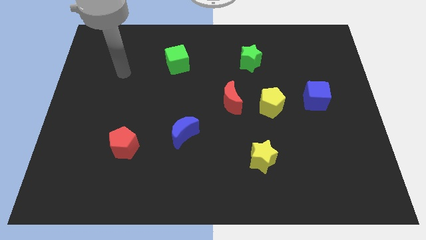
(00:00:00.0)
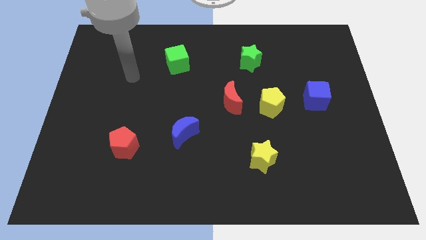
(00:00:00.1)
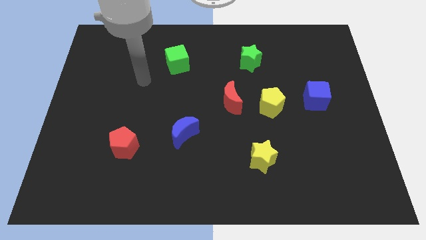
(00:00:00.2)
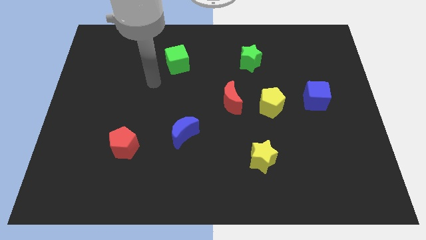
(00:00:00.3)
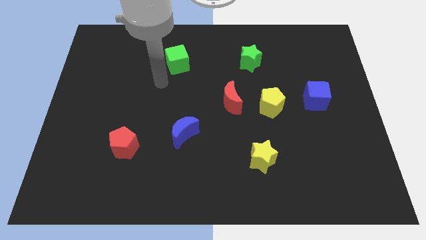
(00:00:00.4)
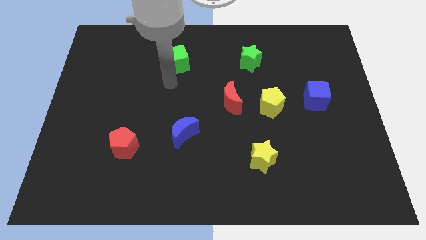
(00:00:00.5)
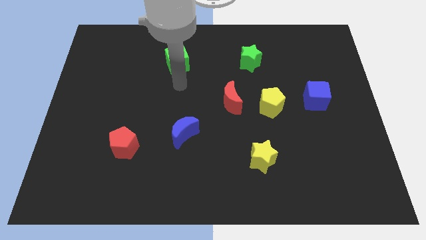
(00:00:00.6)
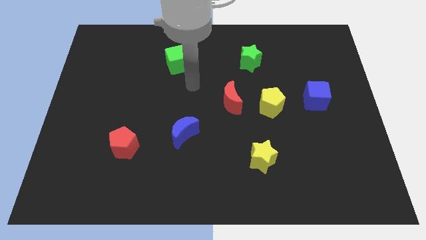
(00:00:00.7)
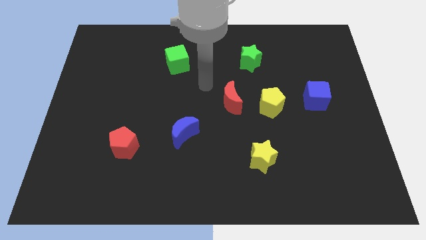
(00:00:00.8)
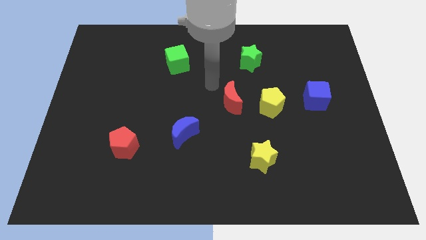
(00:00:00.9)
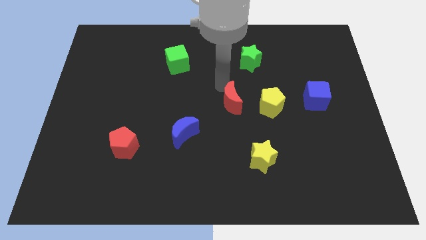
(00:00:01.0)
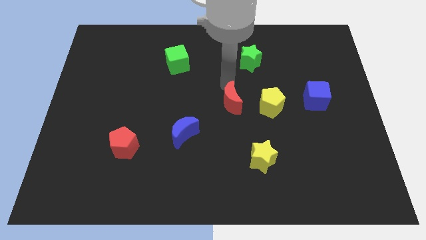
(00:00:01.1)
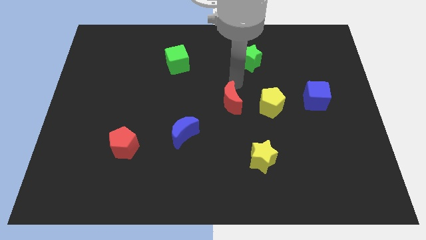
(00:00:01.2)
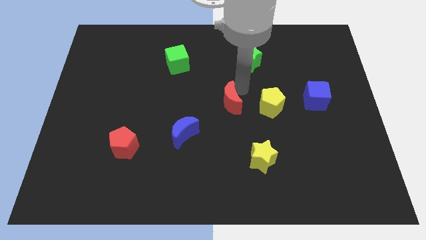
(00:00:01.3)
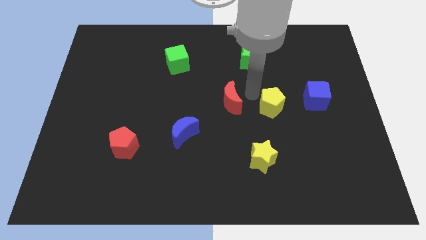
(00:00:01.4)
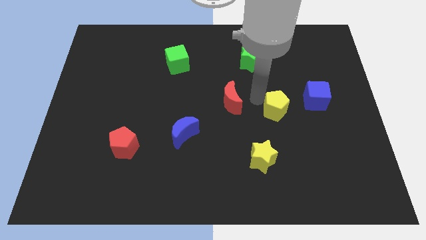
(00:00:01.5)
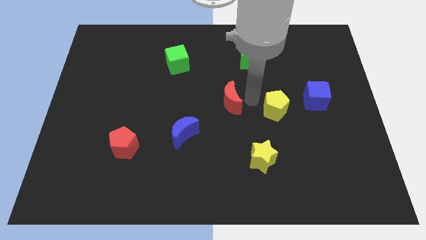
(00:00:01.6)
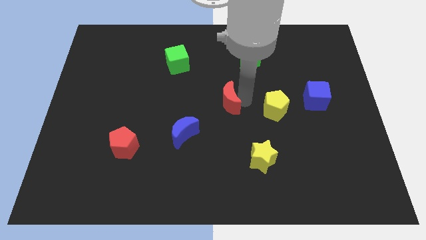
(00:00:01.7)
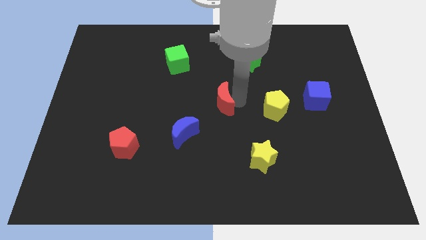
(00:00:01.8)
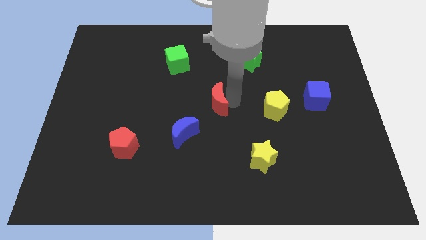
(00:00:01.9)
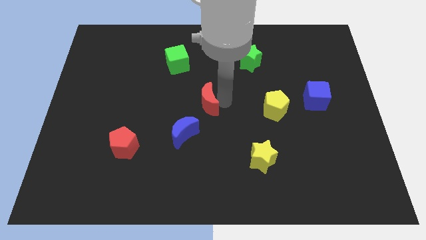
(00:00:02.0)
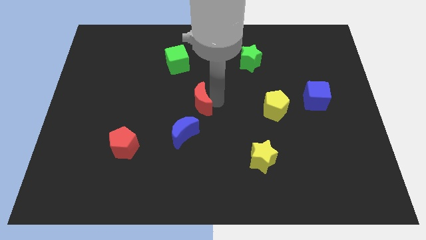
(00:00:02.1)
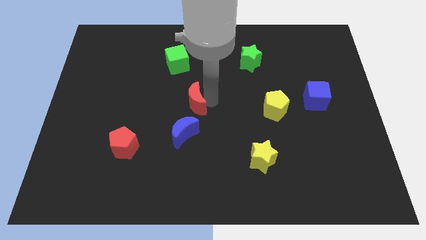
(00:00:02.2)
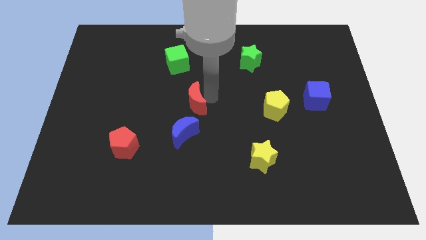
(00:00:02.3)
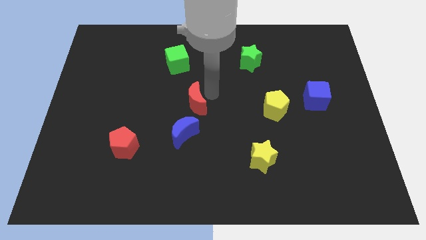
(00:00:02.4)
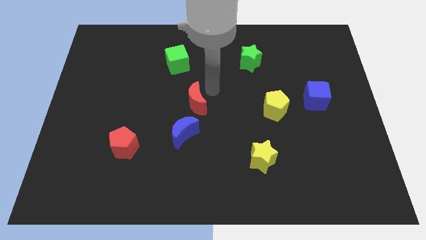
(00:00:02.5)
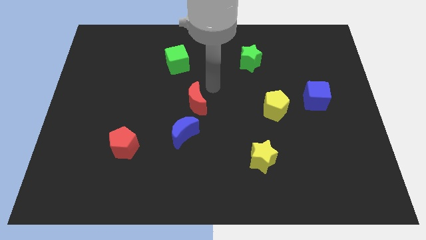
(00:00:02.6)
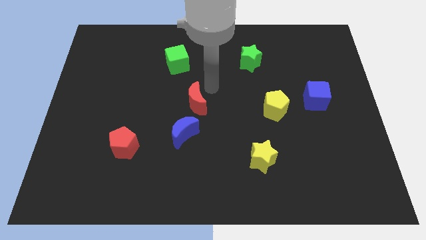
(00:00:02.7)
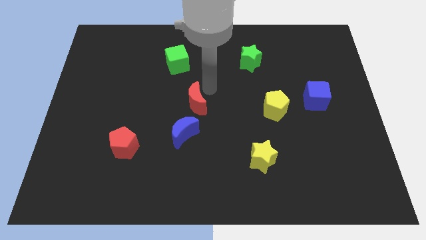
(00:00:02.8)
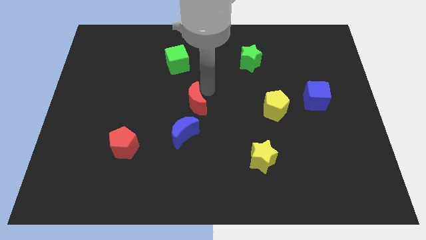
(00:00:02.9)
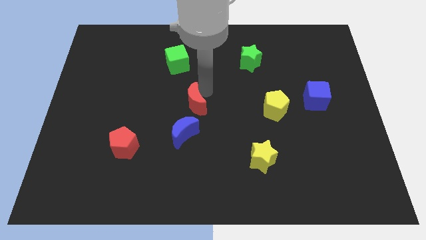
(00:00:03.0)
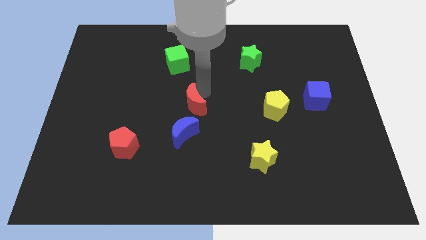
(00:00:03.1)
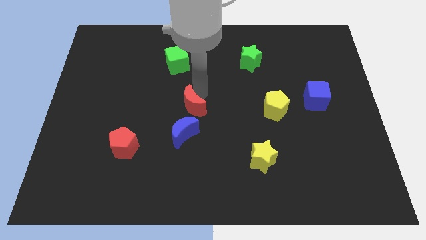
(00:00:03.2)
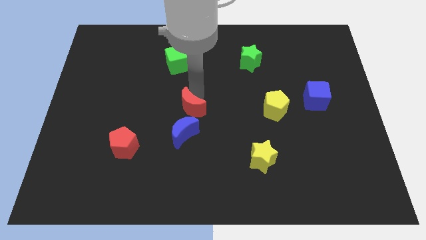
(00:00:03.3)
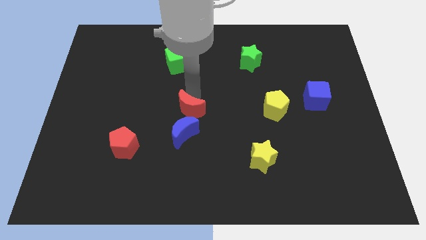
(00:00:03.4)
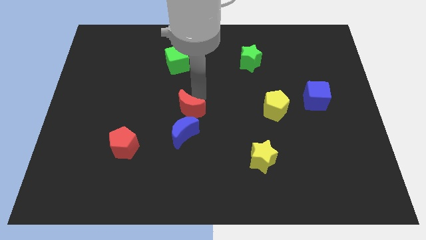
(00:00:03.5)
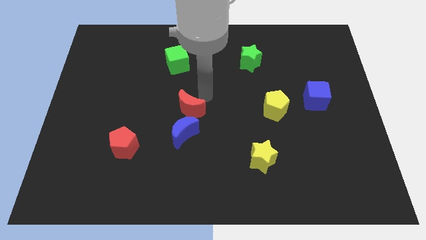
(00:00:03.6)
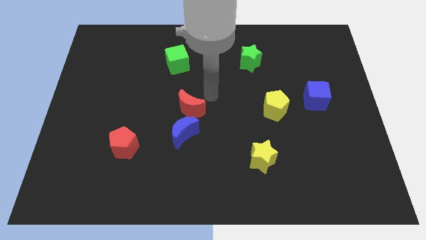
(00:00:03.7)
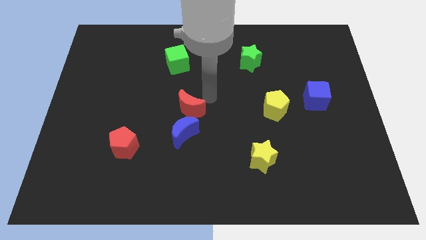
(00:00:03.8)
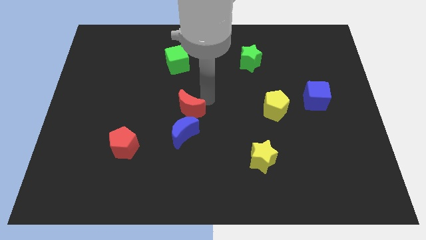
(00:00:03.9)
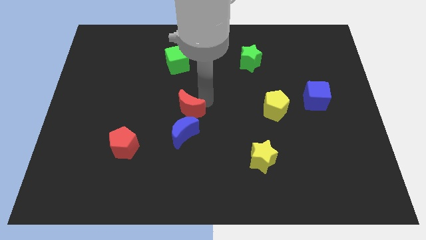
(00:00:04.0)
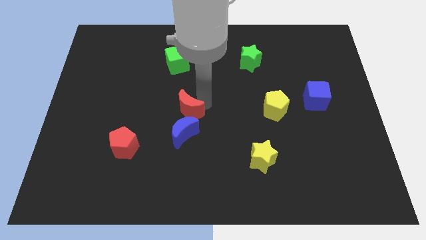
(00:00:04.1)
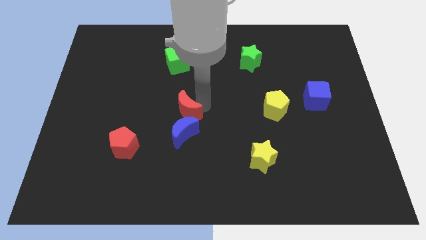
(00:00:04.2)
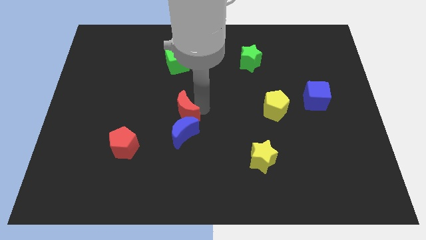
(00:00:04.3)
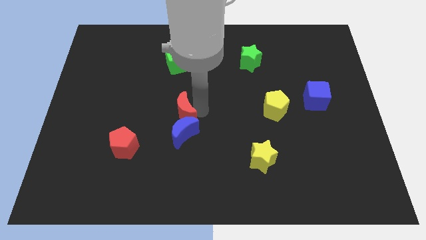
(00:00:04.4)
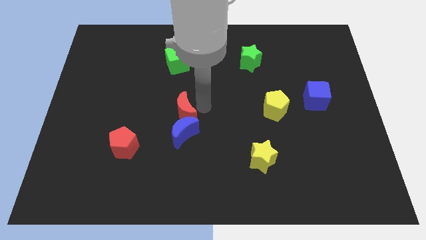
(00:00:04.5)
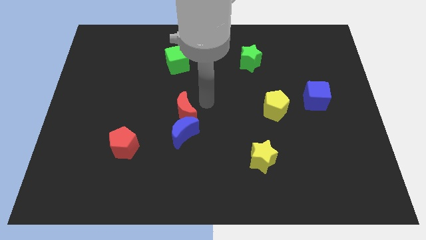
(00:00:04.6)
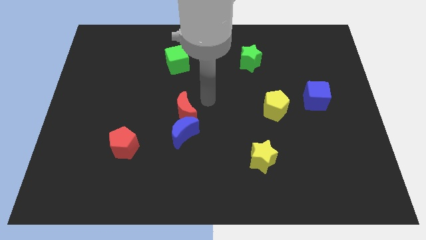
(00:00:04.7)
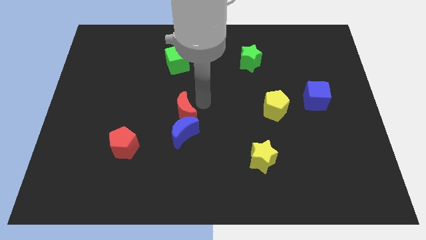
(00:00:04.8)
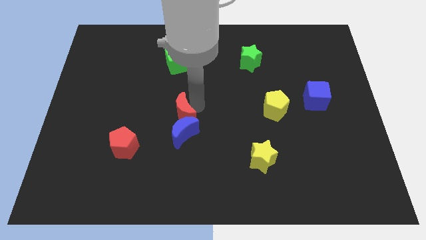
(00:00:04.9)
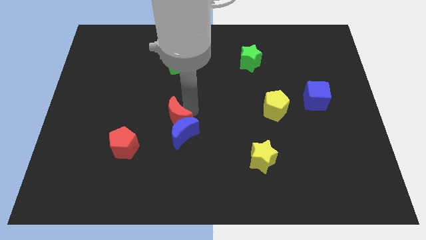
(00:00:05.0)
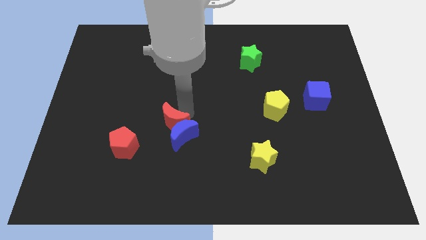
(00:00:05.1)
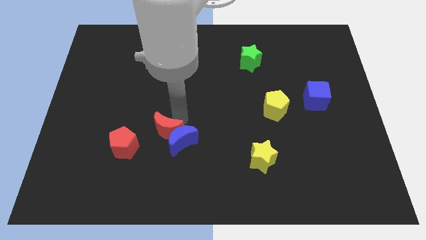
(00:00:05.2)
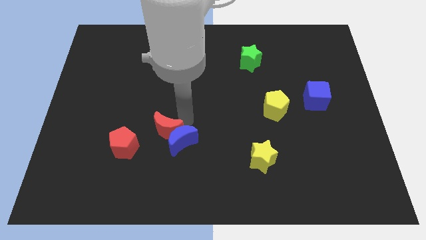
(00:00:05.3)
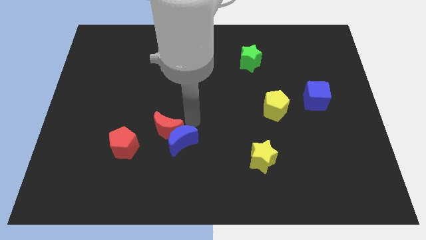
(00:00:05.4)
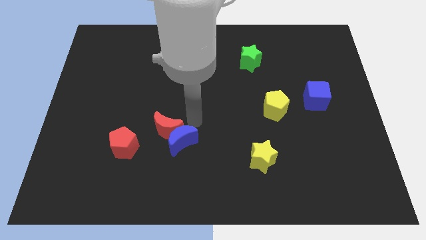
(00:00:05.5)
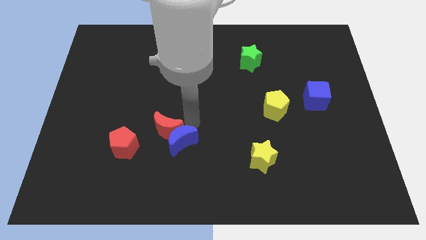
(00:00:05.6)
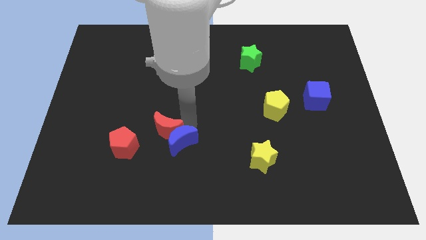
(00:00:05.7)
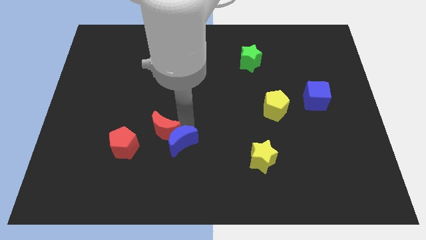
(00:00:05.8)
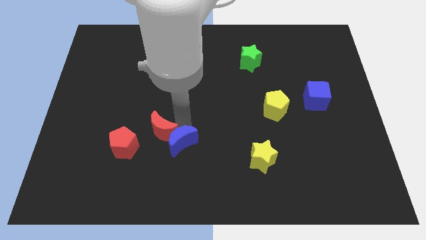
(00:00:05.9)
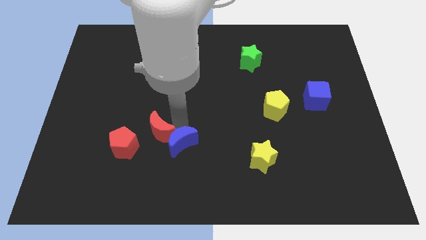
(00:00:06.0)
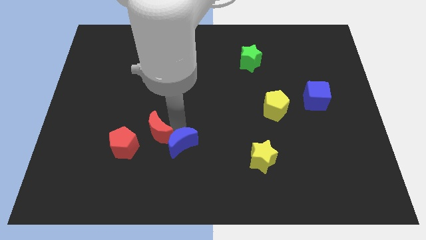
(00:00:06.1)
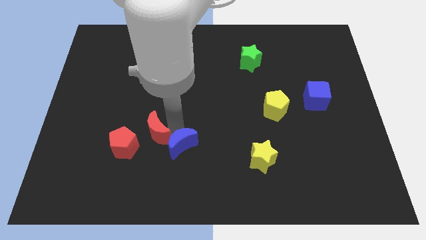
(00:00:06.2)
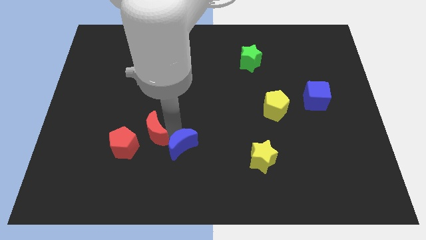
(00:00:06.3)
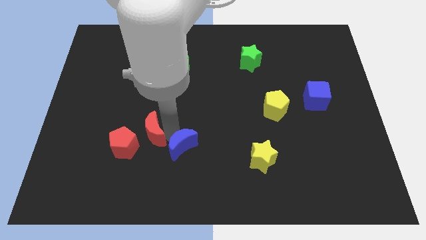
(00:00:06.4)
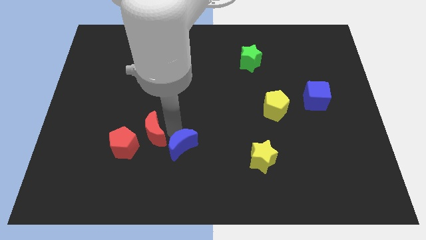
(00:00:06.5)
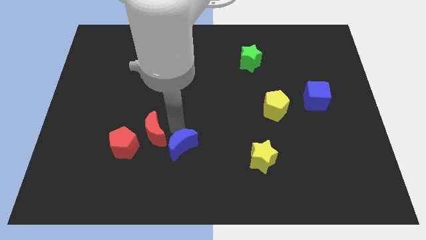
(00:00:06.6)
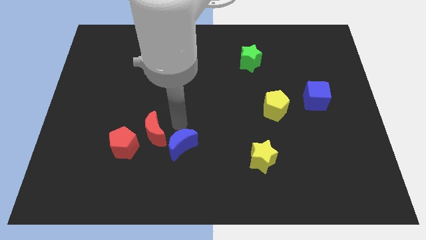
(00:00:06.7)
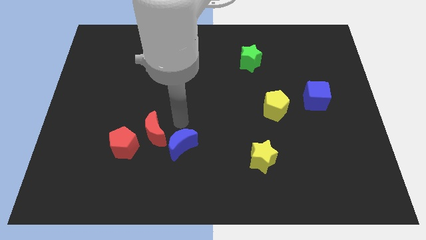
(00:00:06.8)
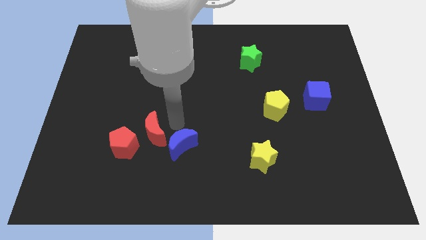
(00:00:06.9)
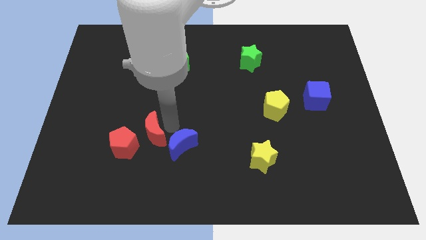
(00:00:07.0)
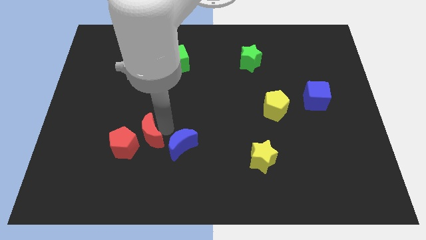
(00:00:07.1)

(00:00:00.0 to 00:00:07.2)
move the red moon to the red pentagon

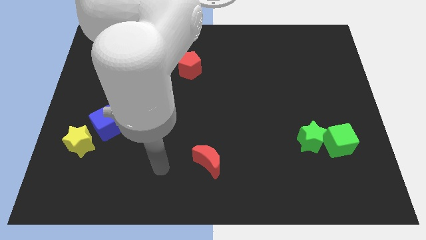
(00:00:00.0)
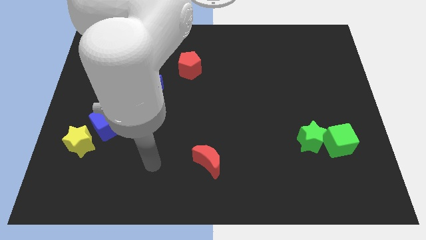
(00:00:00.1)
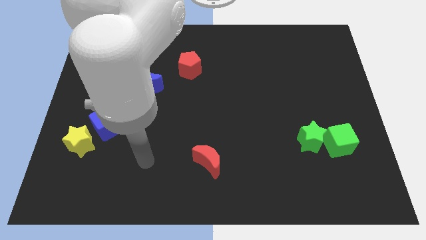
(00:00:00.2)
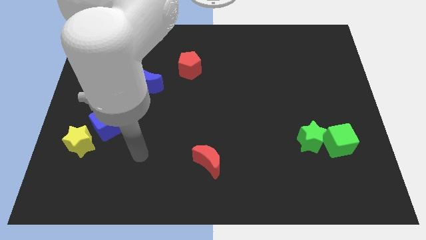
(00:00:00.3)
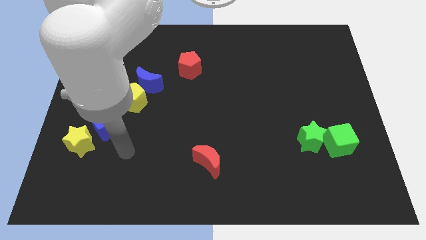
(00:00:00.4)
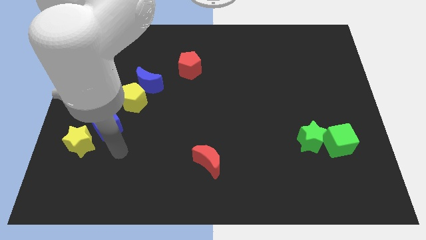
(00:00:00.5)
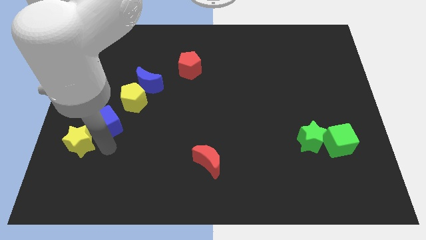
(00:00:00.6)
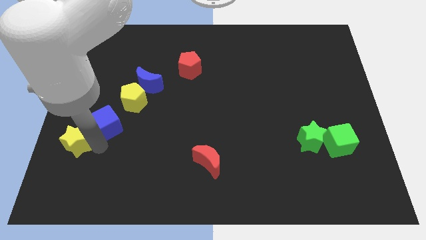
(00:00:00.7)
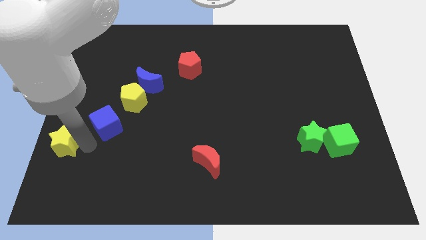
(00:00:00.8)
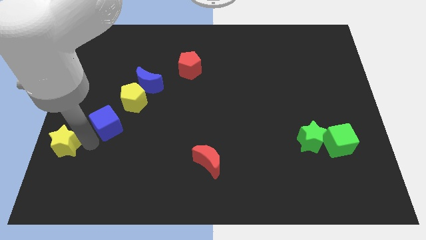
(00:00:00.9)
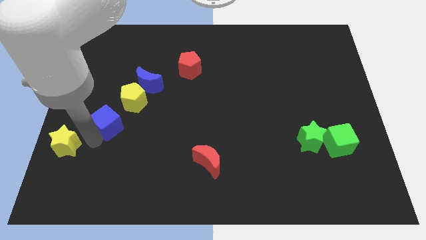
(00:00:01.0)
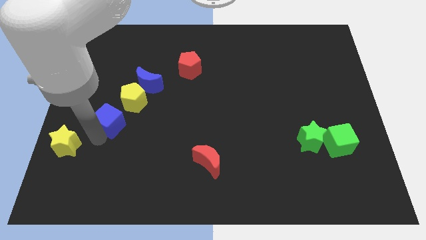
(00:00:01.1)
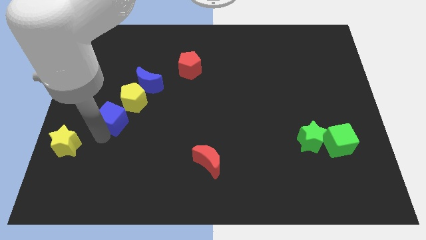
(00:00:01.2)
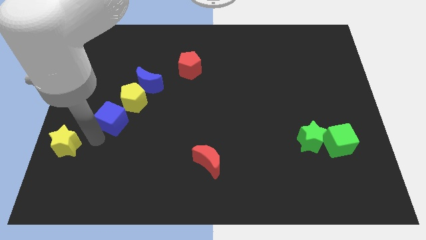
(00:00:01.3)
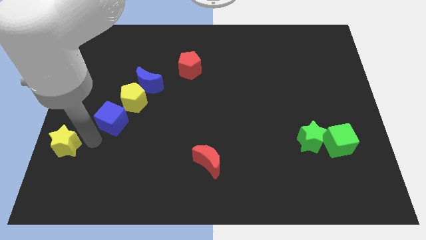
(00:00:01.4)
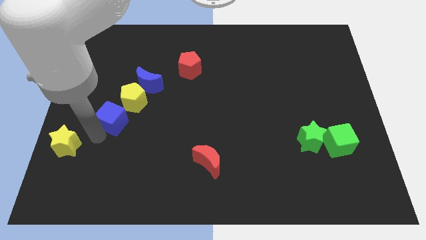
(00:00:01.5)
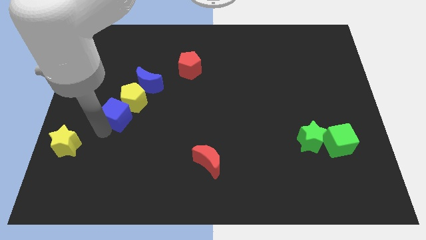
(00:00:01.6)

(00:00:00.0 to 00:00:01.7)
push the blue cube next to the yellow pentagon
